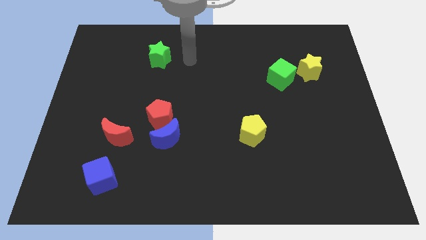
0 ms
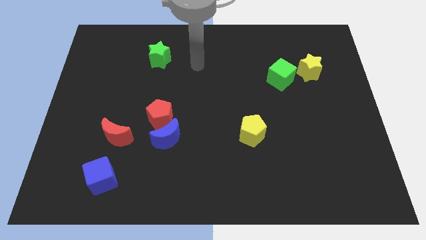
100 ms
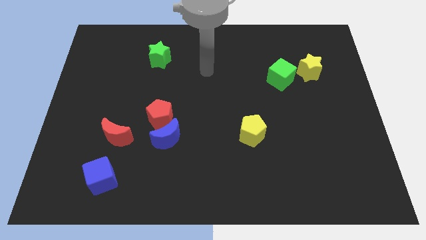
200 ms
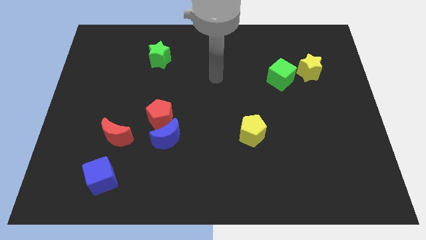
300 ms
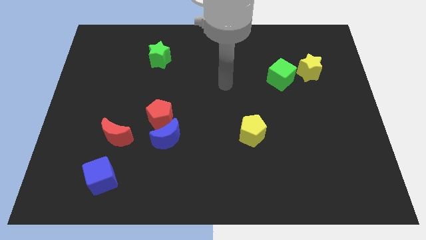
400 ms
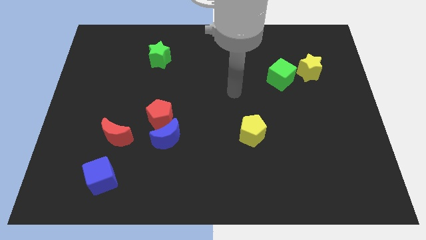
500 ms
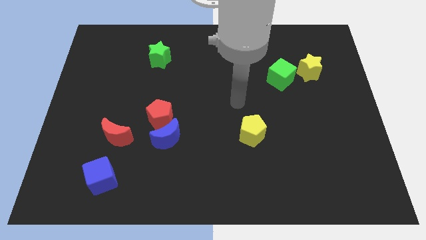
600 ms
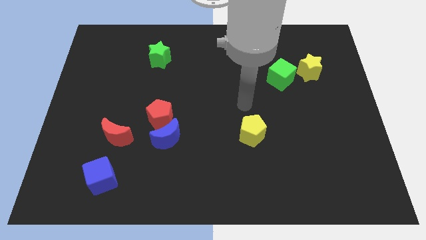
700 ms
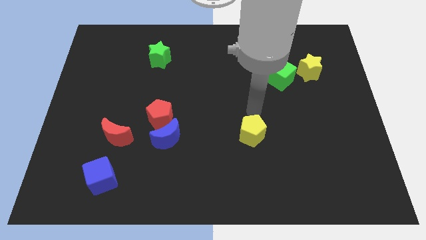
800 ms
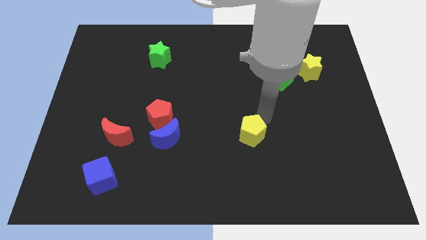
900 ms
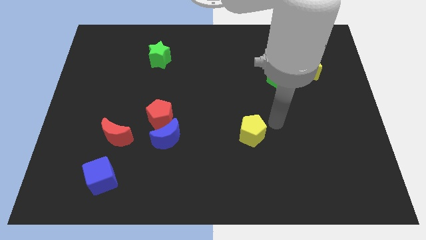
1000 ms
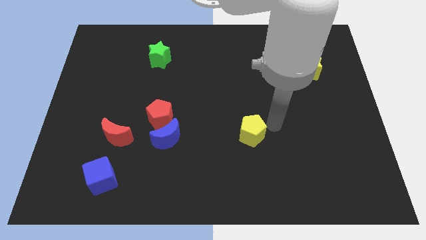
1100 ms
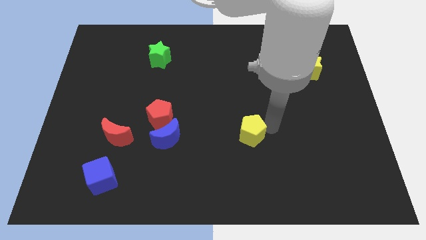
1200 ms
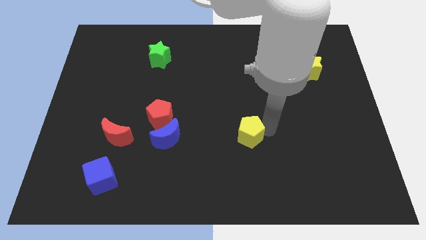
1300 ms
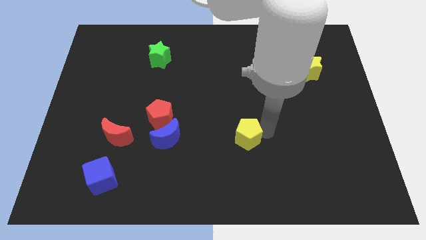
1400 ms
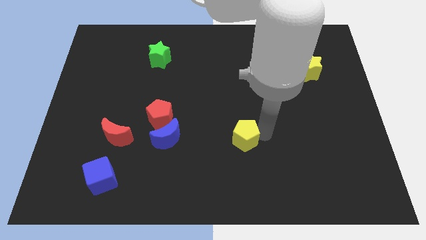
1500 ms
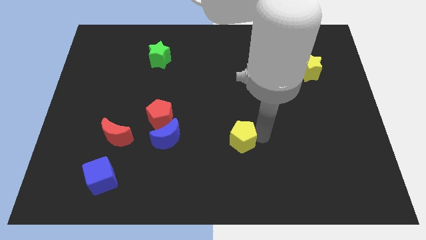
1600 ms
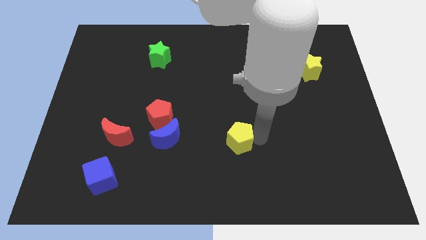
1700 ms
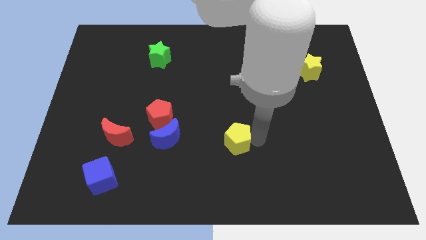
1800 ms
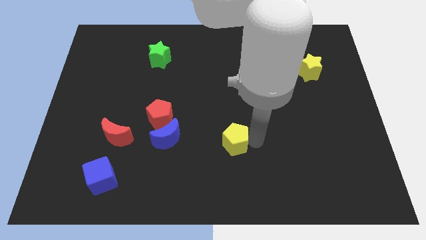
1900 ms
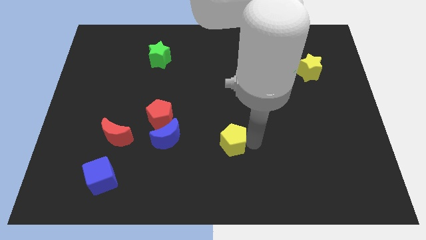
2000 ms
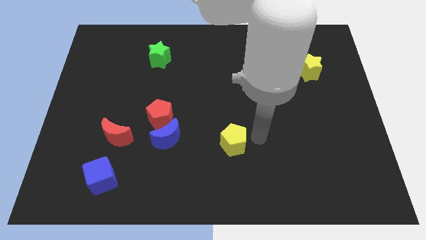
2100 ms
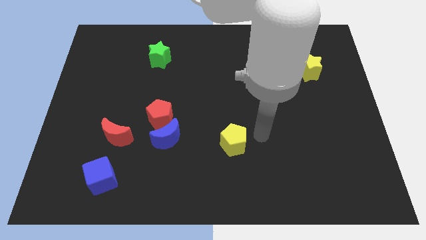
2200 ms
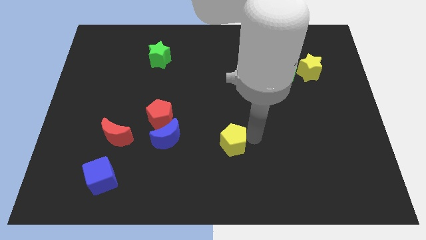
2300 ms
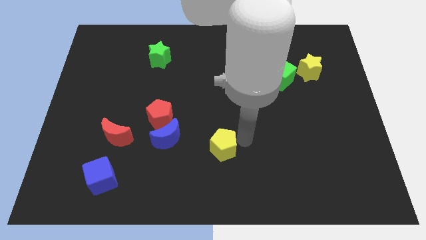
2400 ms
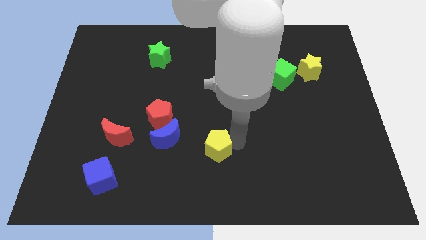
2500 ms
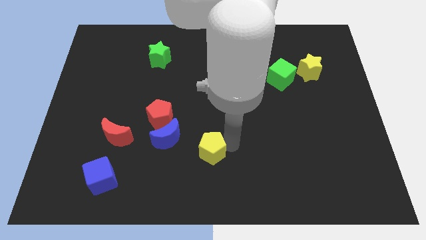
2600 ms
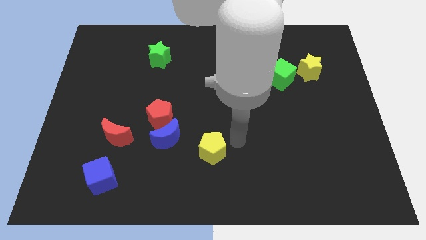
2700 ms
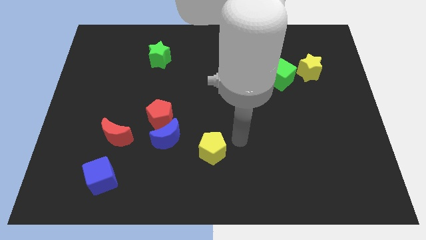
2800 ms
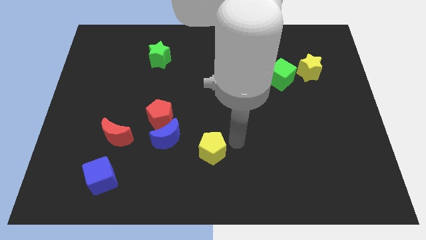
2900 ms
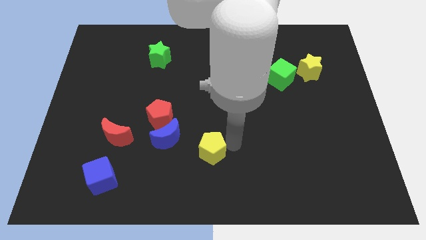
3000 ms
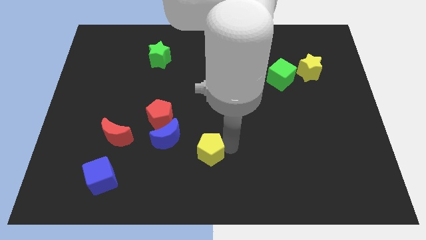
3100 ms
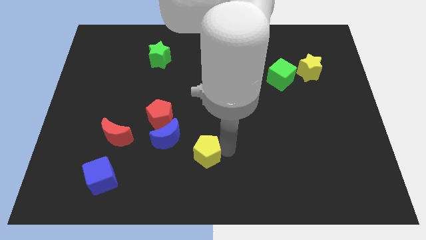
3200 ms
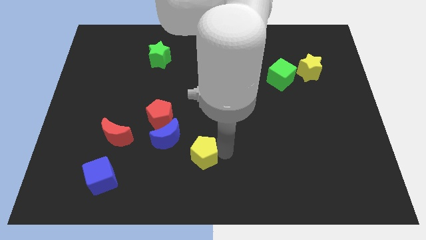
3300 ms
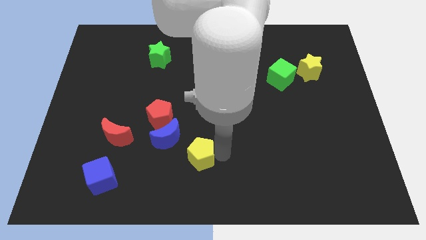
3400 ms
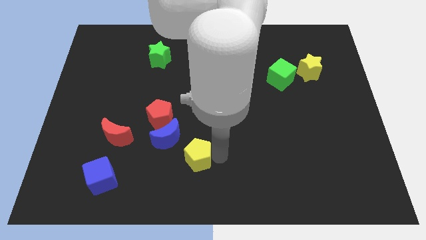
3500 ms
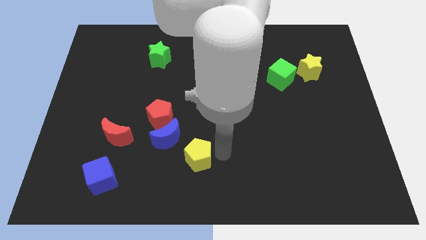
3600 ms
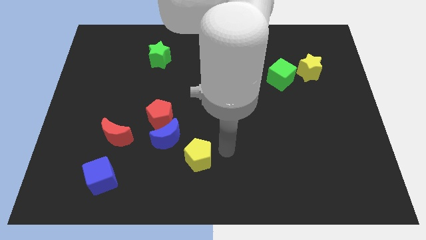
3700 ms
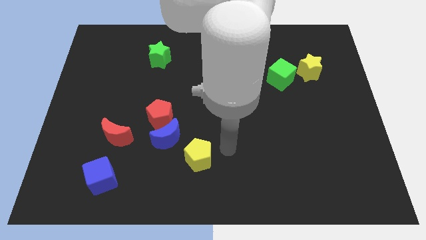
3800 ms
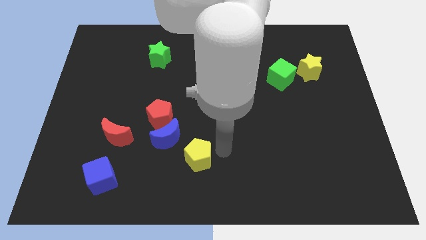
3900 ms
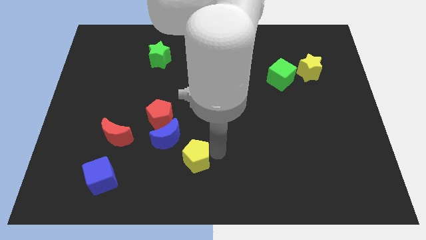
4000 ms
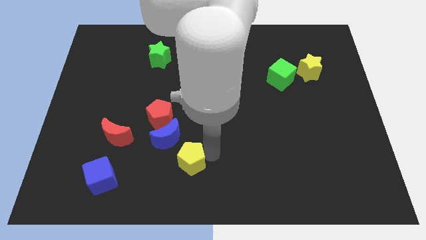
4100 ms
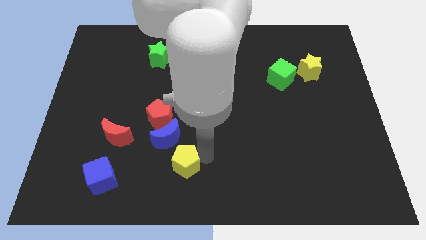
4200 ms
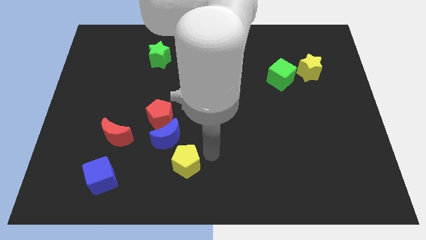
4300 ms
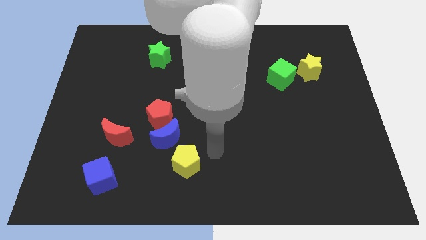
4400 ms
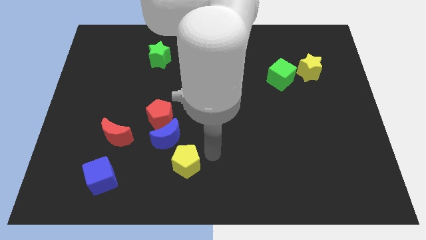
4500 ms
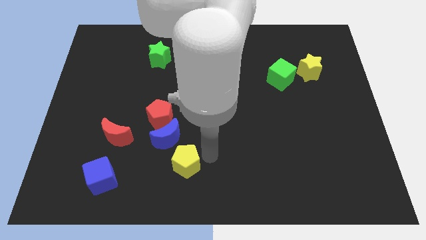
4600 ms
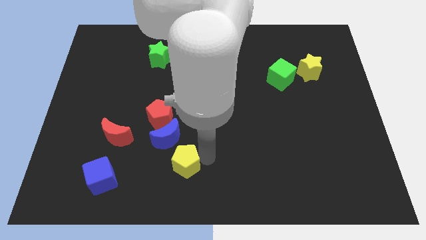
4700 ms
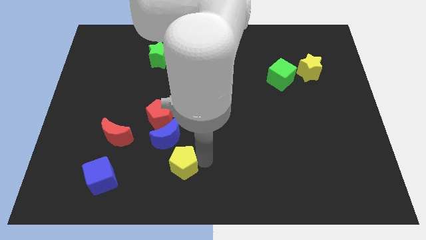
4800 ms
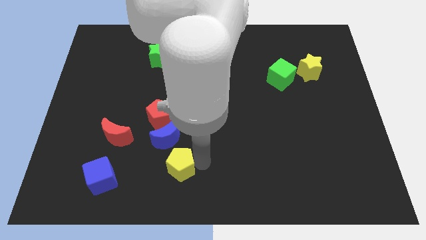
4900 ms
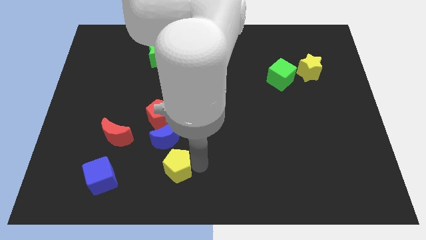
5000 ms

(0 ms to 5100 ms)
put the yellow pentagon just right of the blue cube

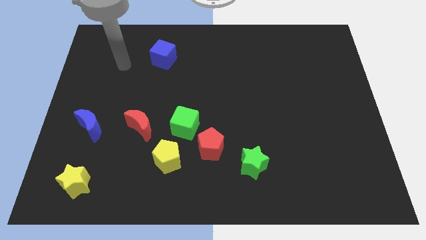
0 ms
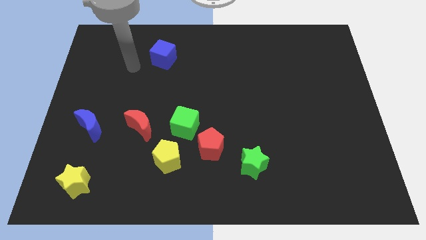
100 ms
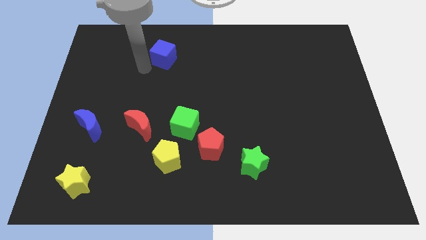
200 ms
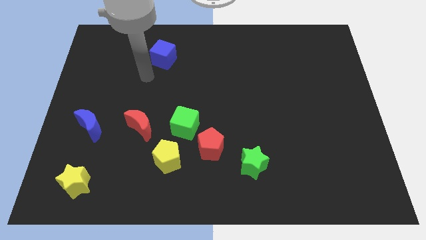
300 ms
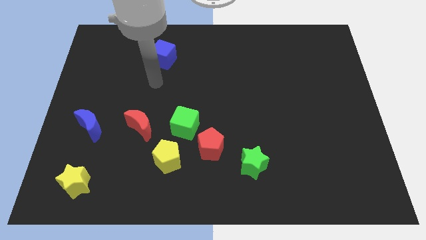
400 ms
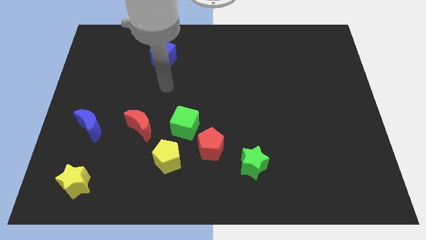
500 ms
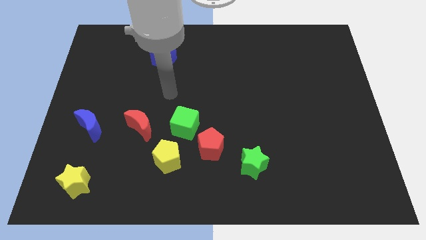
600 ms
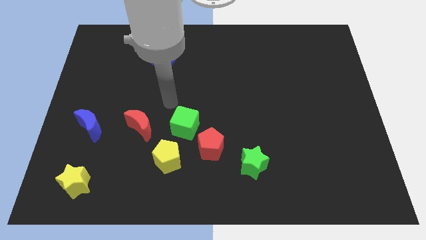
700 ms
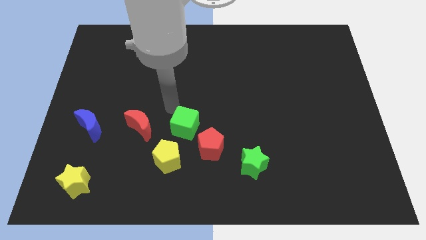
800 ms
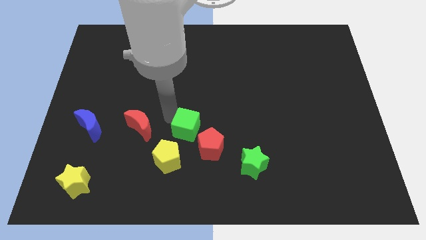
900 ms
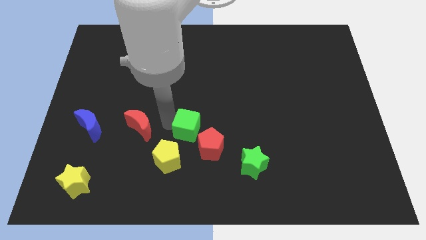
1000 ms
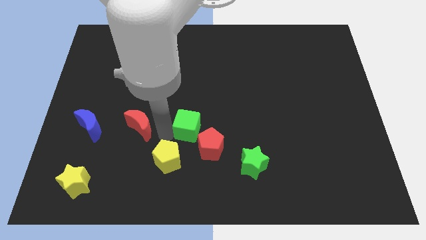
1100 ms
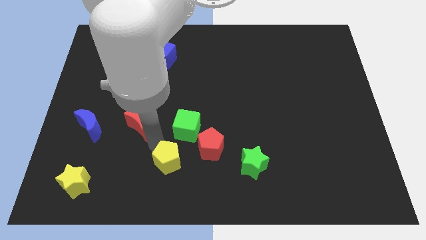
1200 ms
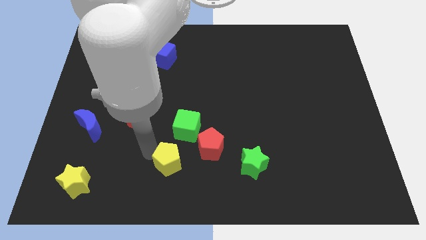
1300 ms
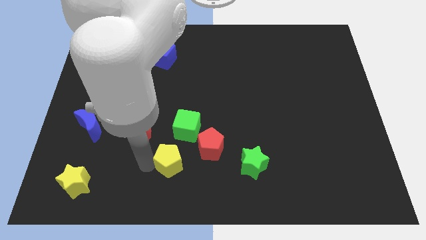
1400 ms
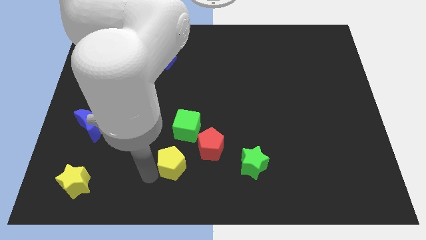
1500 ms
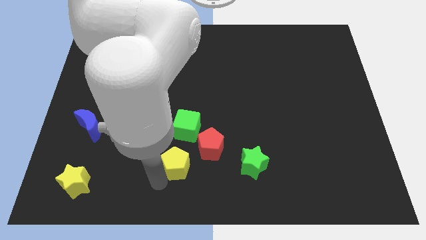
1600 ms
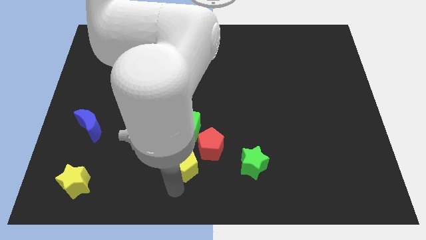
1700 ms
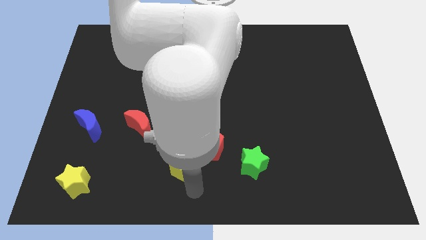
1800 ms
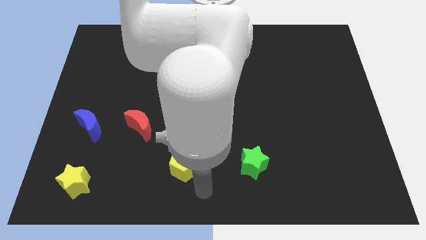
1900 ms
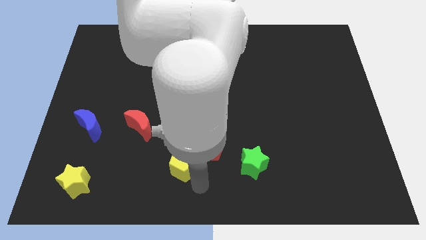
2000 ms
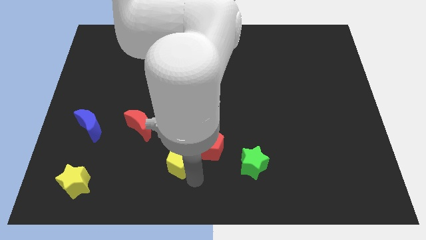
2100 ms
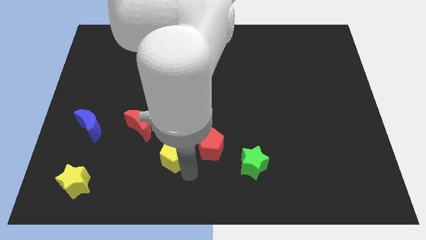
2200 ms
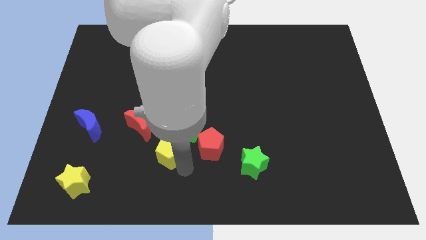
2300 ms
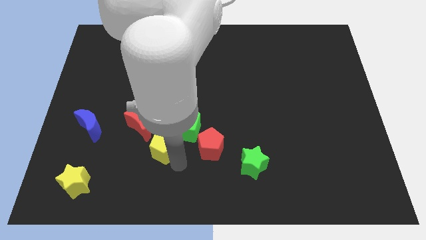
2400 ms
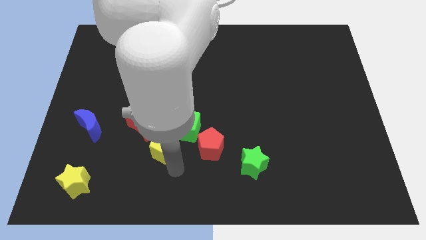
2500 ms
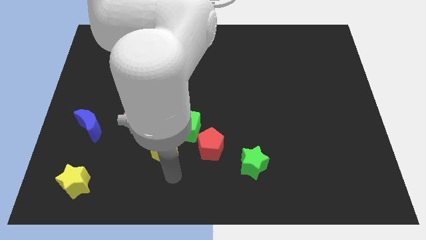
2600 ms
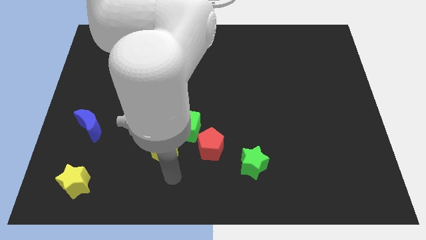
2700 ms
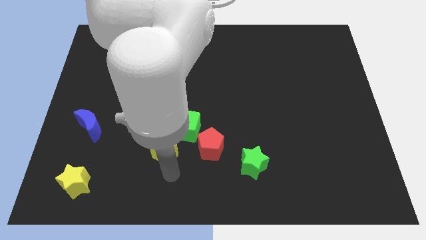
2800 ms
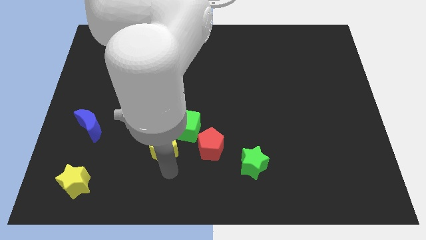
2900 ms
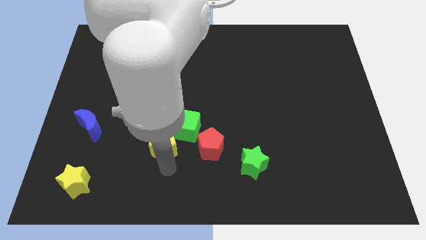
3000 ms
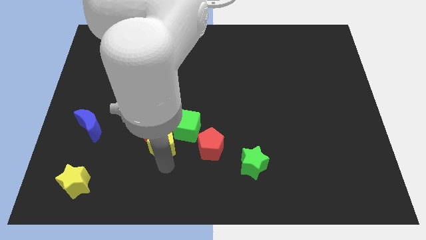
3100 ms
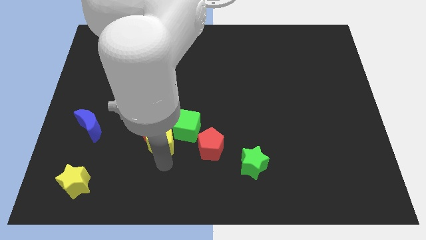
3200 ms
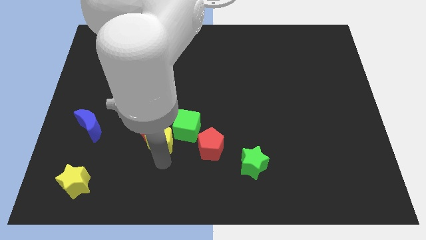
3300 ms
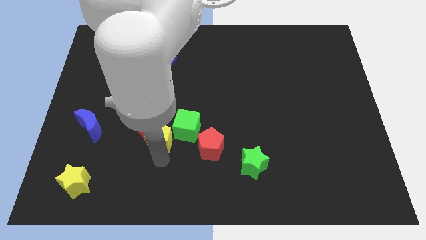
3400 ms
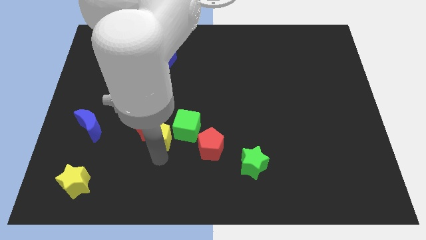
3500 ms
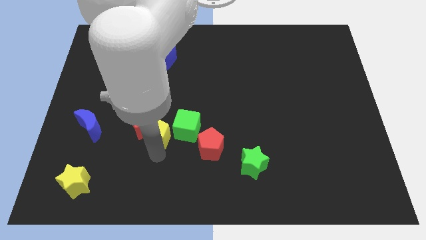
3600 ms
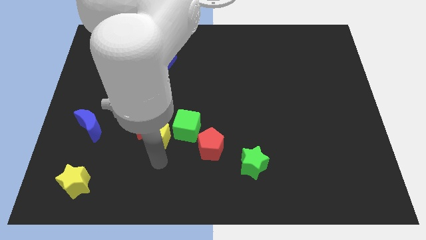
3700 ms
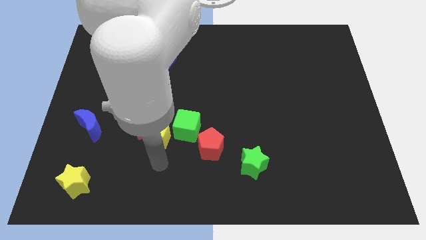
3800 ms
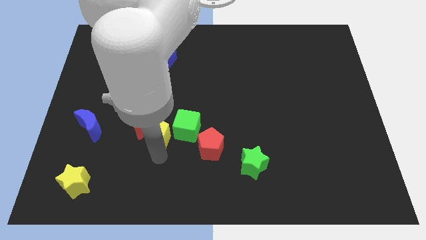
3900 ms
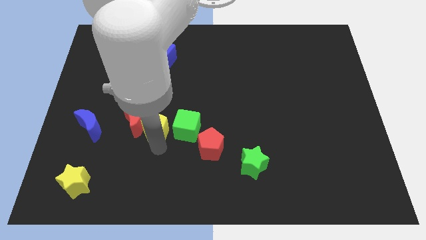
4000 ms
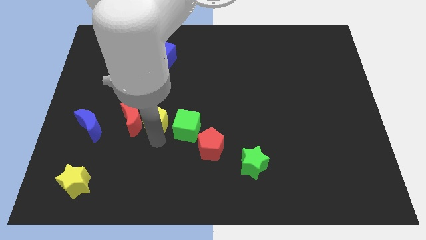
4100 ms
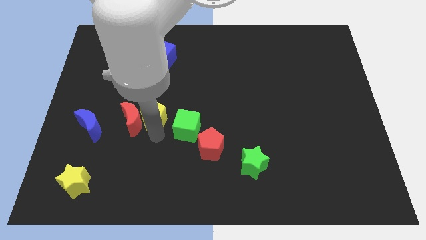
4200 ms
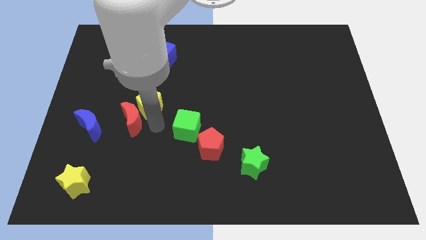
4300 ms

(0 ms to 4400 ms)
put the yellow pentagon above the red moon
